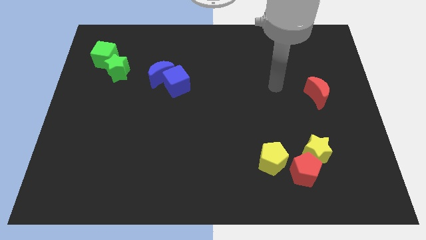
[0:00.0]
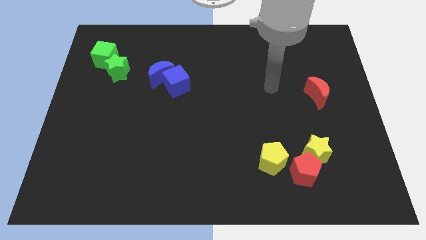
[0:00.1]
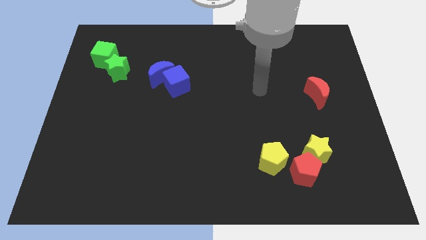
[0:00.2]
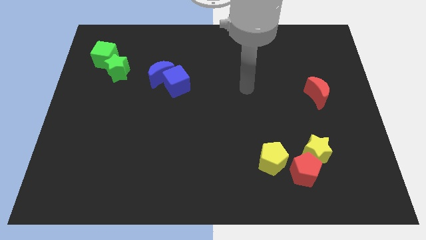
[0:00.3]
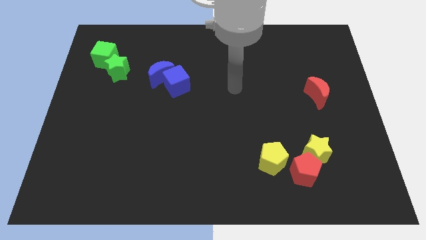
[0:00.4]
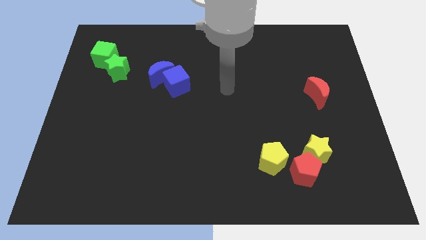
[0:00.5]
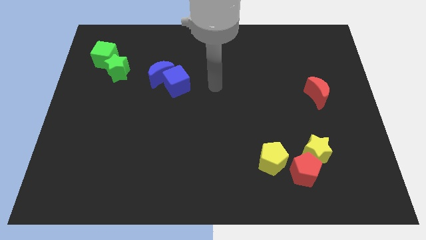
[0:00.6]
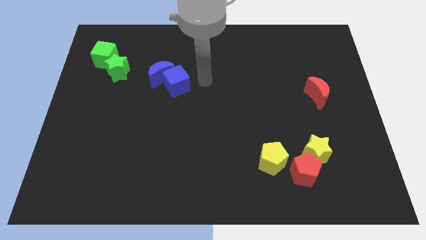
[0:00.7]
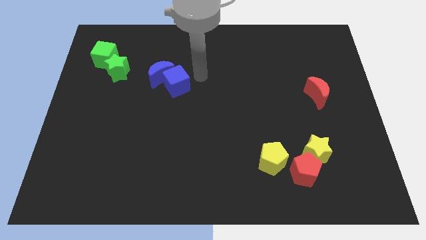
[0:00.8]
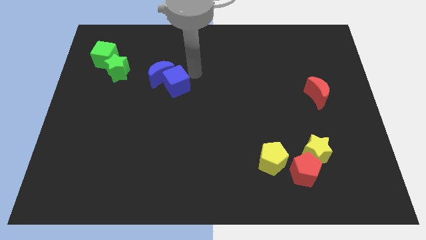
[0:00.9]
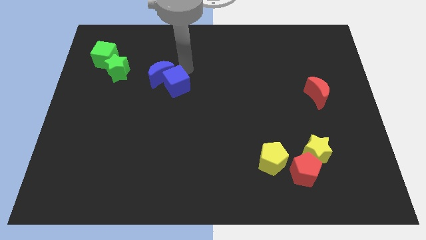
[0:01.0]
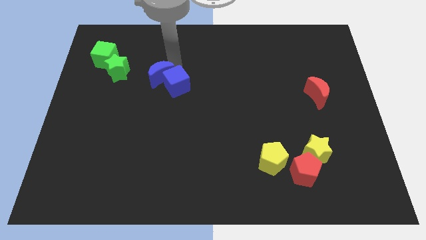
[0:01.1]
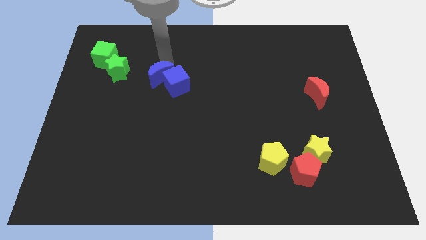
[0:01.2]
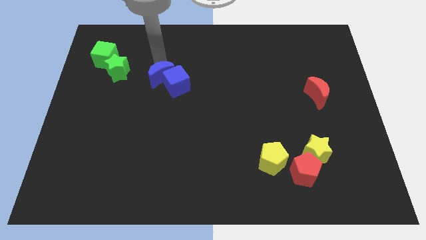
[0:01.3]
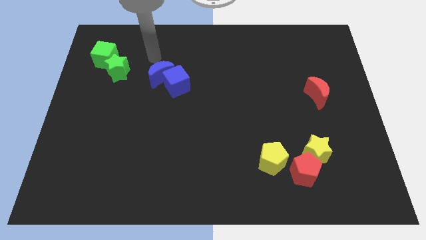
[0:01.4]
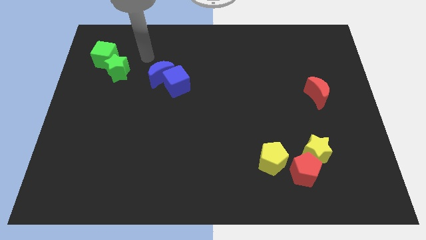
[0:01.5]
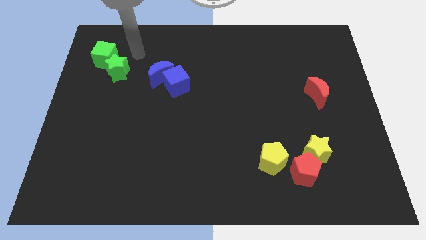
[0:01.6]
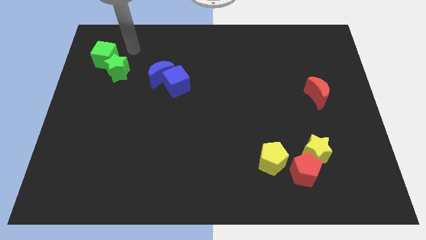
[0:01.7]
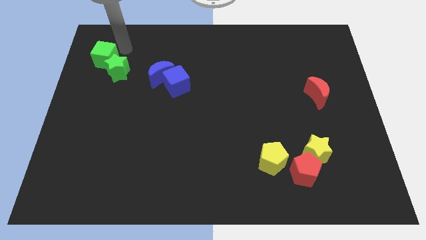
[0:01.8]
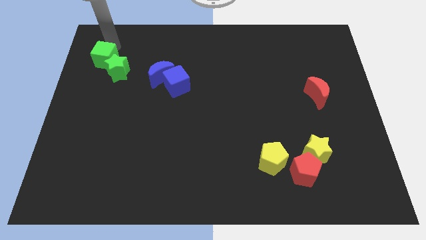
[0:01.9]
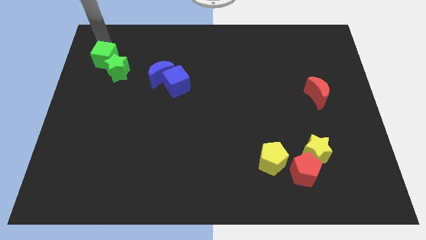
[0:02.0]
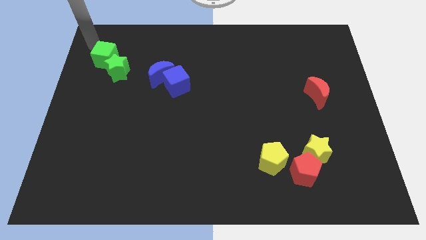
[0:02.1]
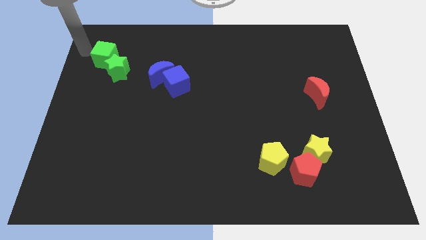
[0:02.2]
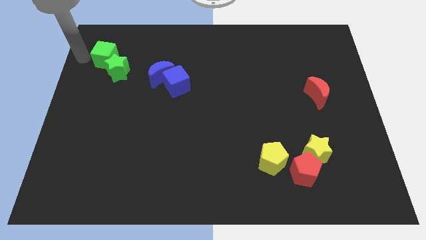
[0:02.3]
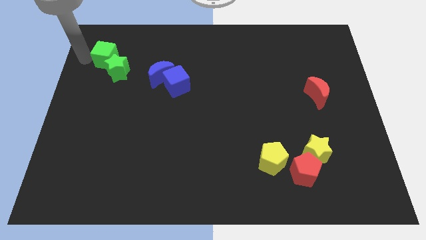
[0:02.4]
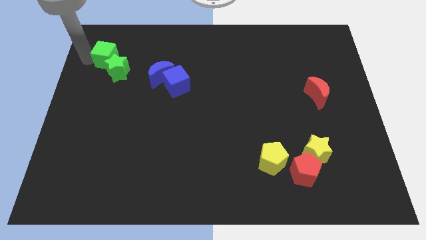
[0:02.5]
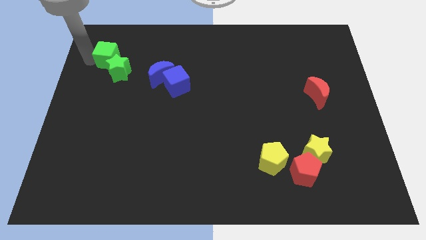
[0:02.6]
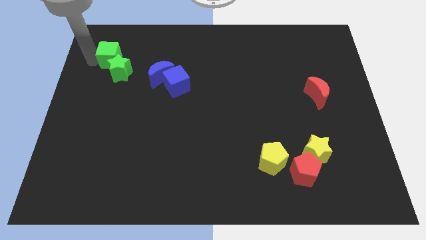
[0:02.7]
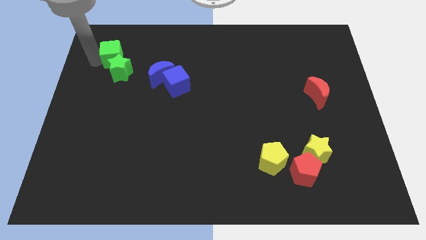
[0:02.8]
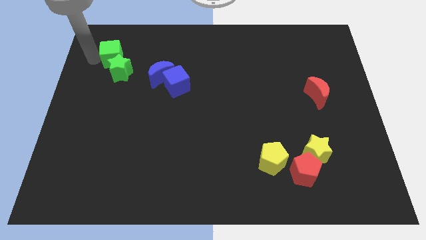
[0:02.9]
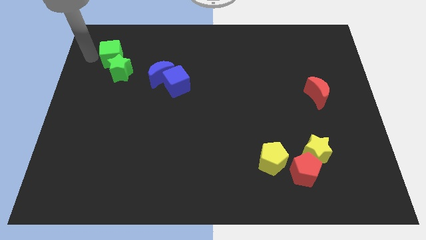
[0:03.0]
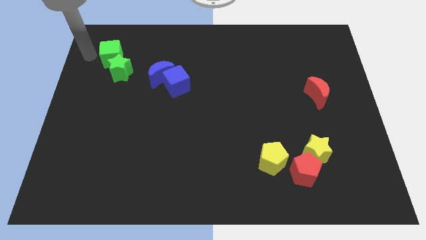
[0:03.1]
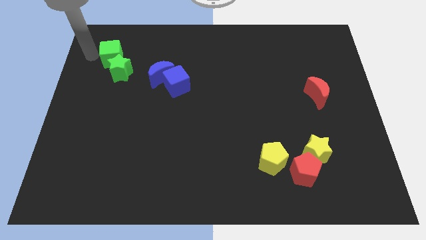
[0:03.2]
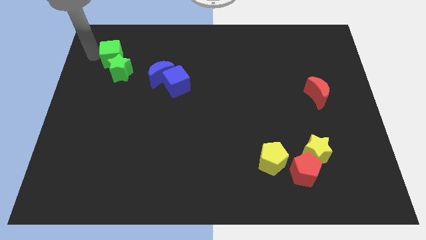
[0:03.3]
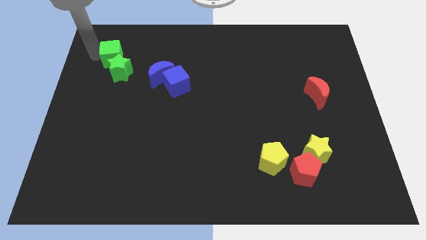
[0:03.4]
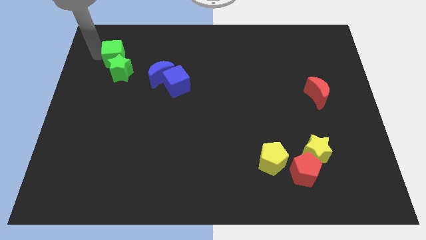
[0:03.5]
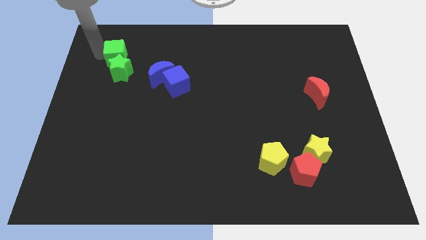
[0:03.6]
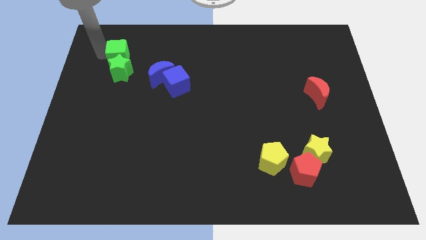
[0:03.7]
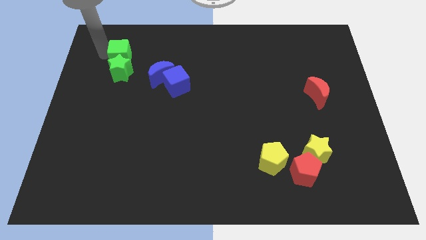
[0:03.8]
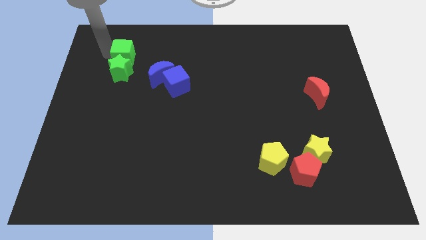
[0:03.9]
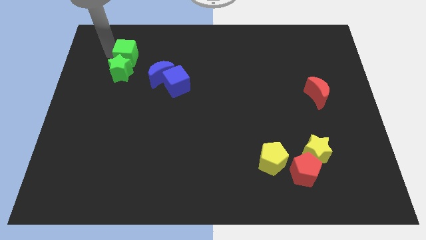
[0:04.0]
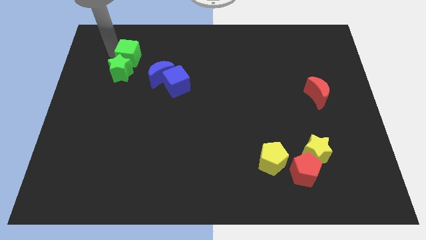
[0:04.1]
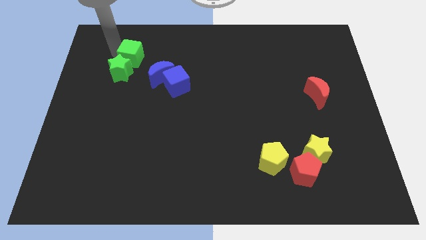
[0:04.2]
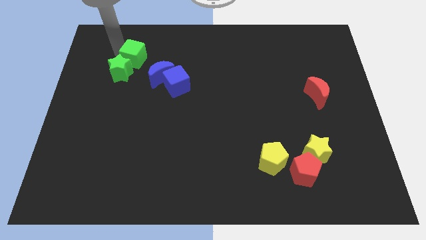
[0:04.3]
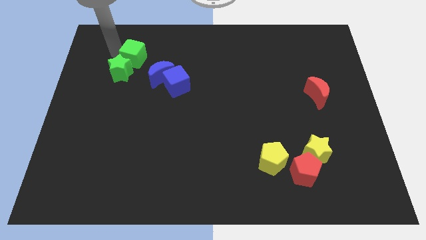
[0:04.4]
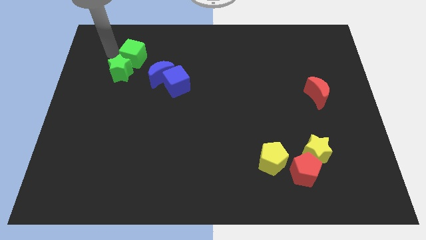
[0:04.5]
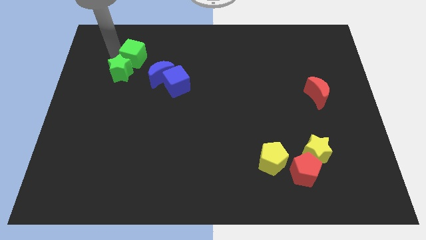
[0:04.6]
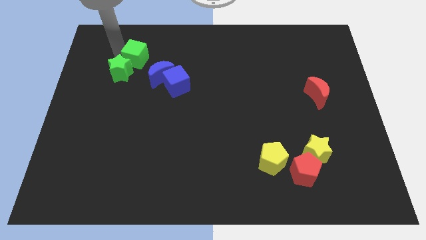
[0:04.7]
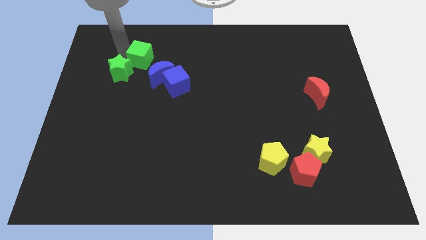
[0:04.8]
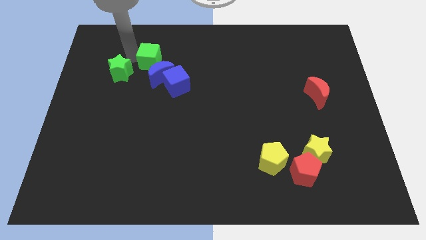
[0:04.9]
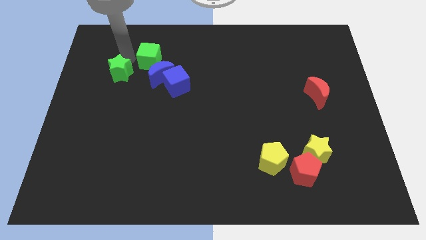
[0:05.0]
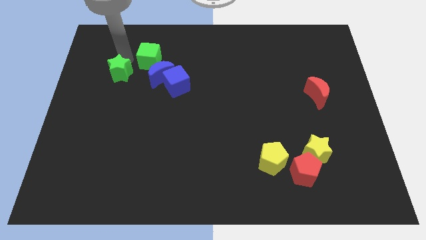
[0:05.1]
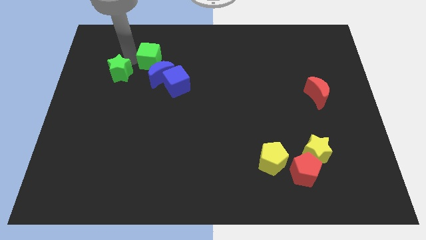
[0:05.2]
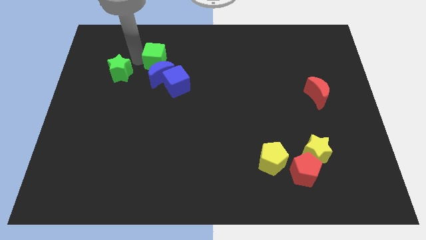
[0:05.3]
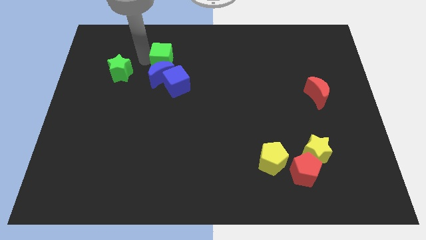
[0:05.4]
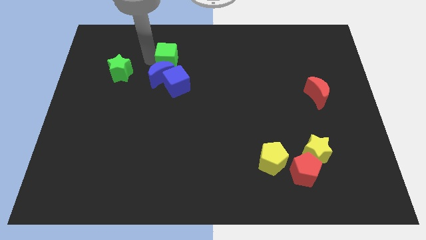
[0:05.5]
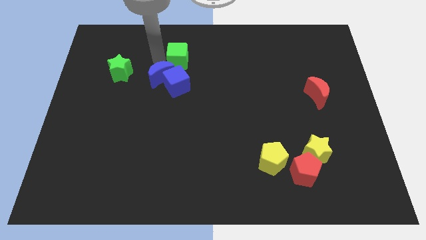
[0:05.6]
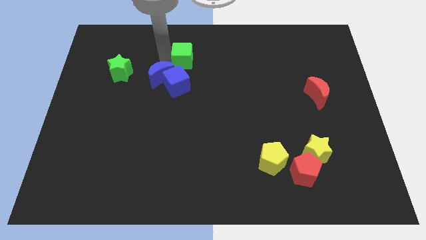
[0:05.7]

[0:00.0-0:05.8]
push the green cube to the right

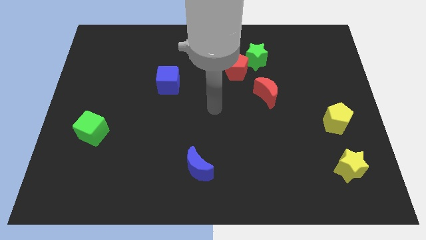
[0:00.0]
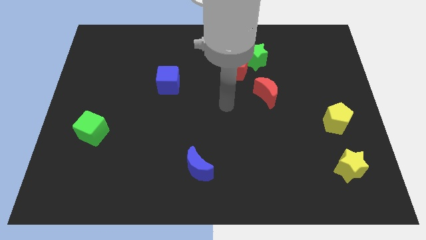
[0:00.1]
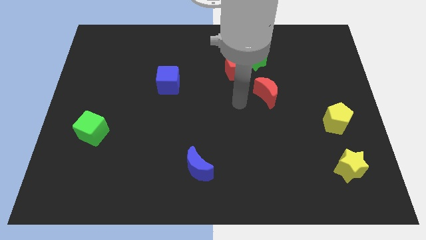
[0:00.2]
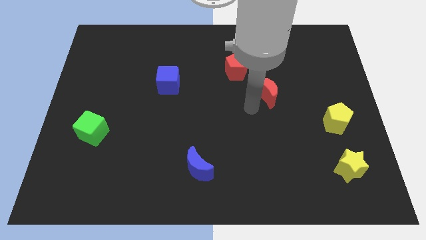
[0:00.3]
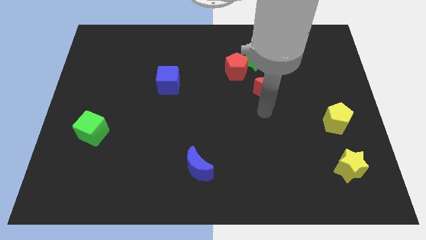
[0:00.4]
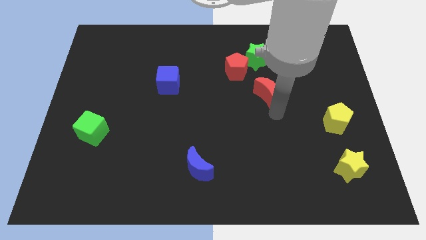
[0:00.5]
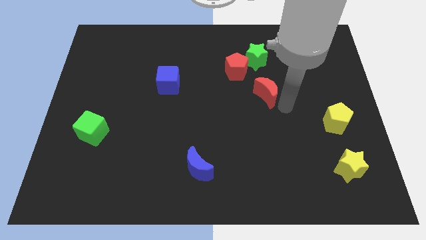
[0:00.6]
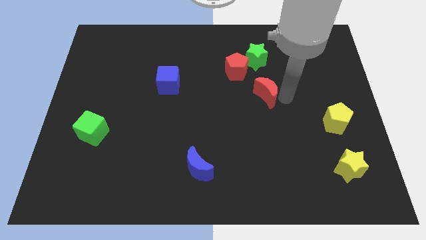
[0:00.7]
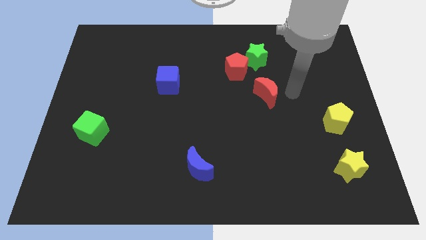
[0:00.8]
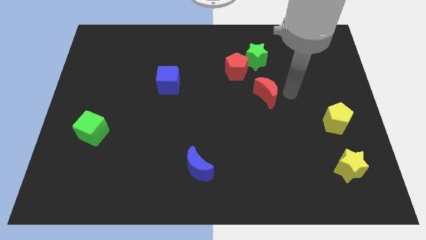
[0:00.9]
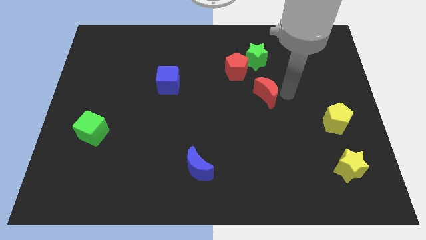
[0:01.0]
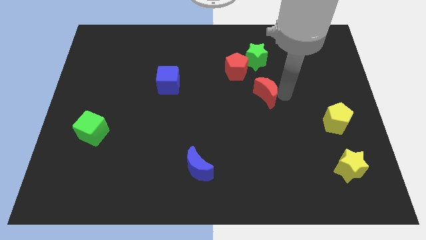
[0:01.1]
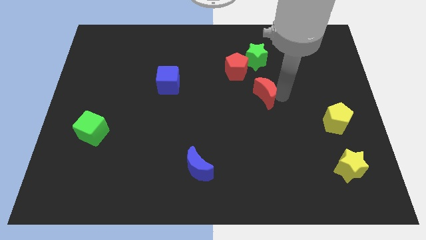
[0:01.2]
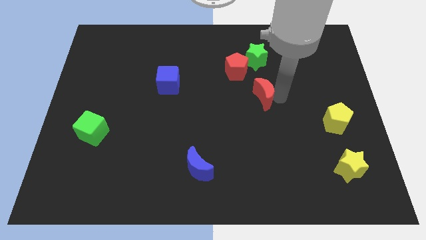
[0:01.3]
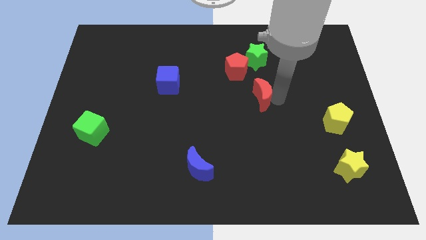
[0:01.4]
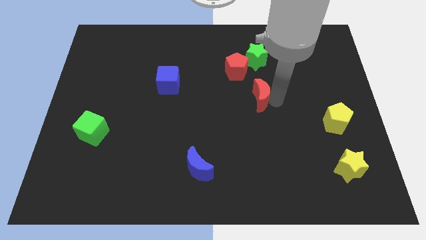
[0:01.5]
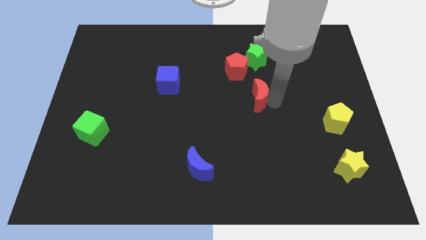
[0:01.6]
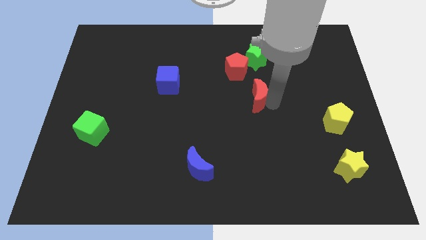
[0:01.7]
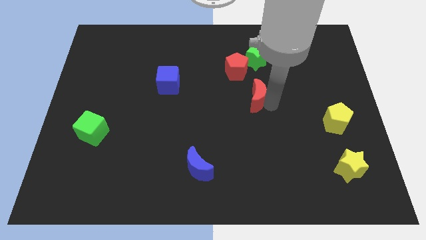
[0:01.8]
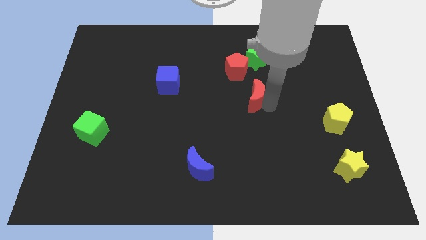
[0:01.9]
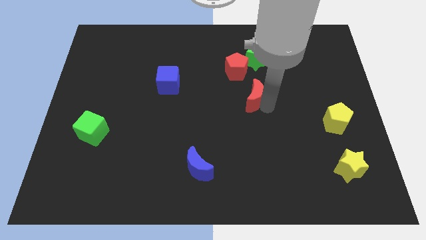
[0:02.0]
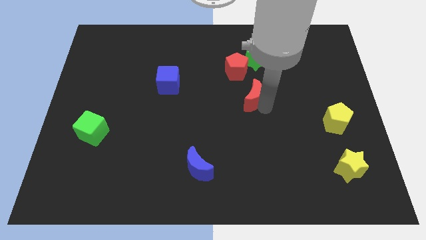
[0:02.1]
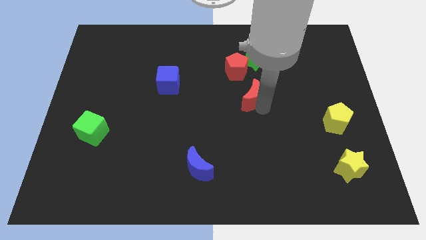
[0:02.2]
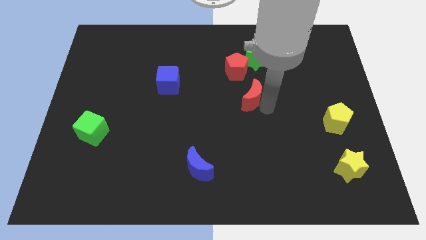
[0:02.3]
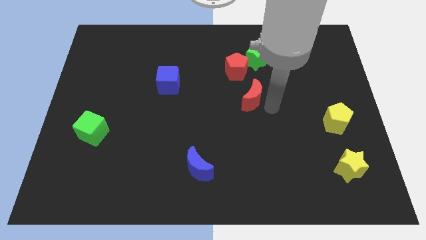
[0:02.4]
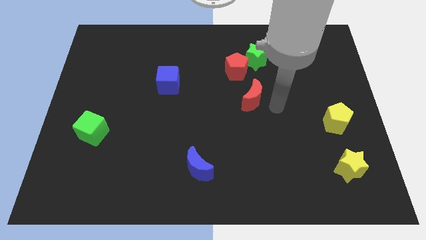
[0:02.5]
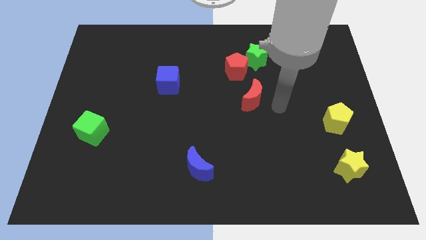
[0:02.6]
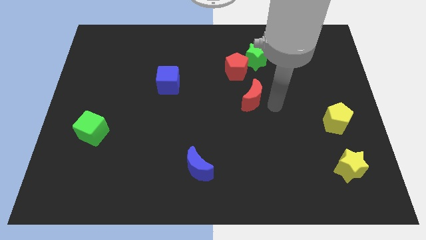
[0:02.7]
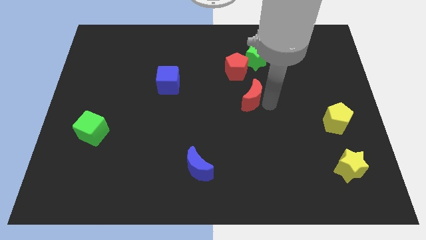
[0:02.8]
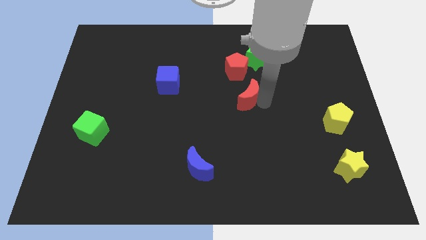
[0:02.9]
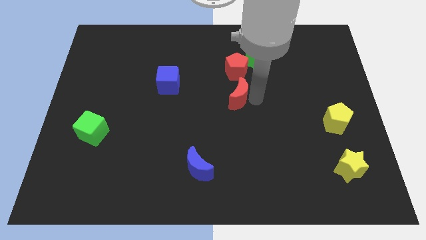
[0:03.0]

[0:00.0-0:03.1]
slide the red moon a little bit left
